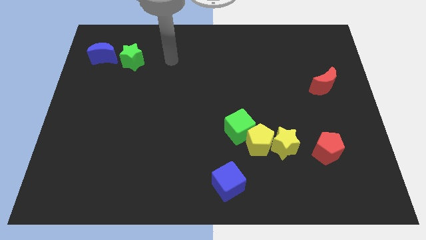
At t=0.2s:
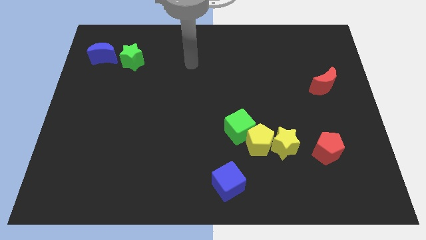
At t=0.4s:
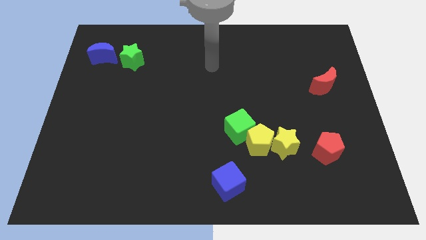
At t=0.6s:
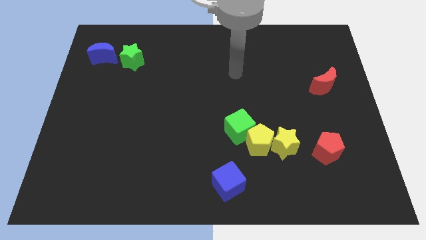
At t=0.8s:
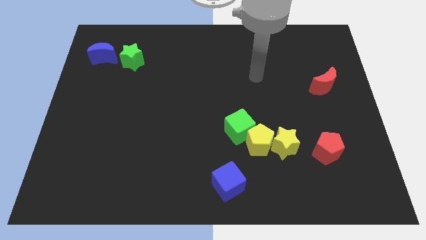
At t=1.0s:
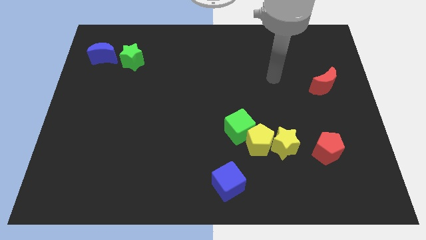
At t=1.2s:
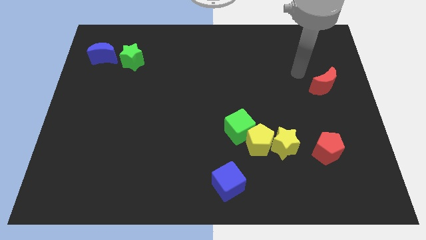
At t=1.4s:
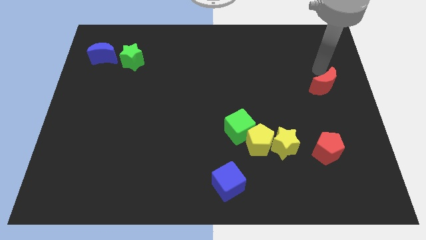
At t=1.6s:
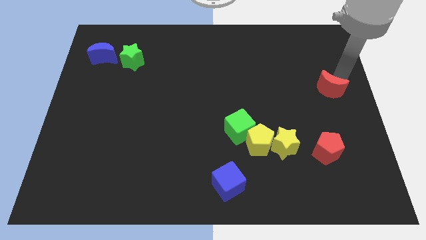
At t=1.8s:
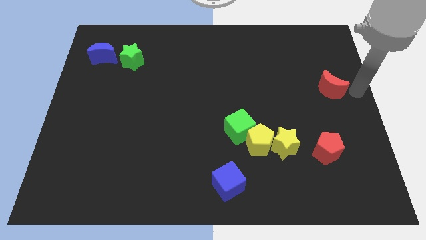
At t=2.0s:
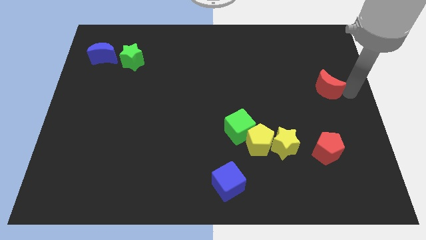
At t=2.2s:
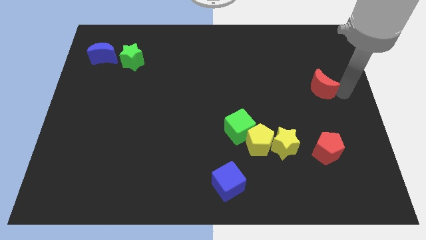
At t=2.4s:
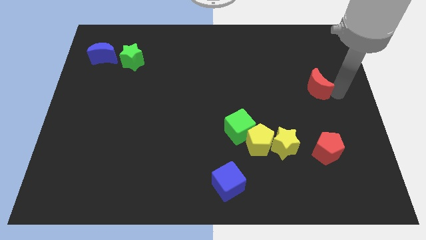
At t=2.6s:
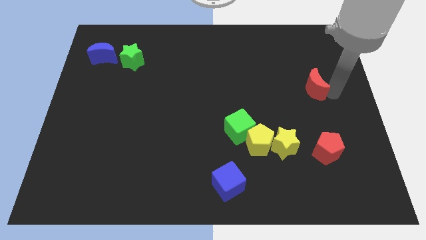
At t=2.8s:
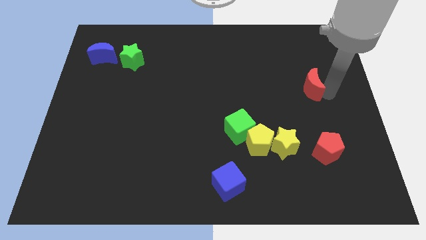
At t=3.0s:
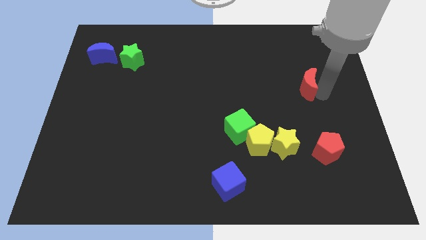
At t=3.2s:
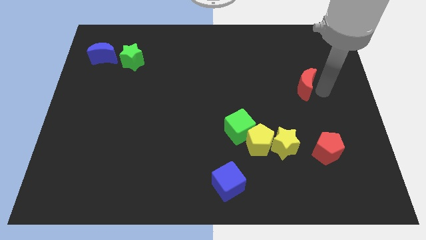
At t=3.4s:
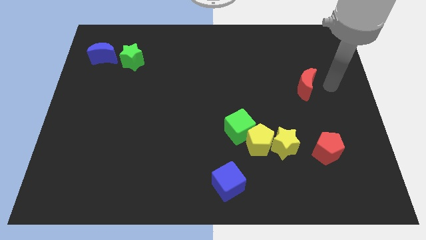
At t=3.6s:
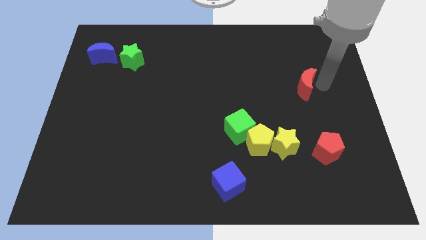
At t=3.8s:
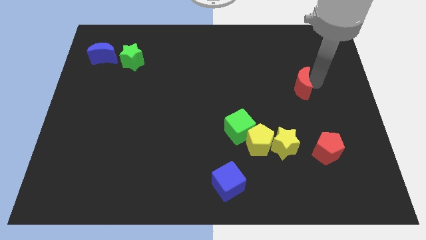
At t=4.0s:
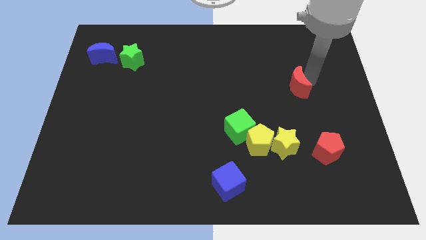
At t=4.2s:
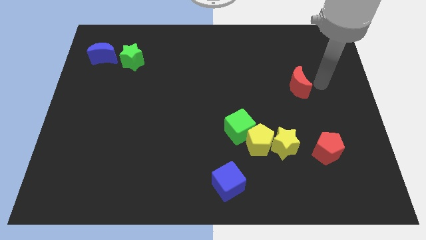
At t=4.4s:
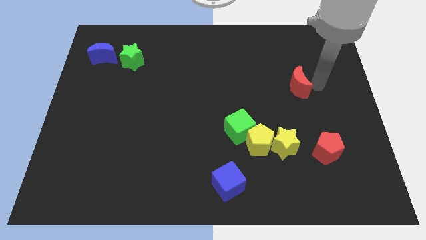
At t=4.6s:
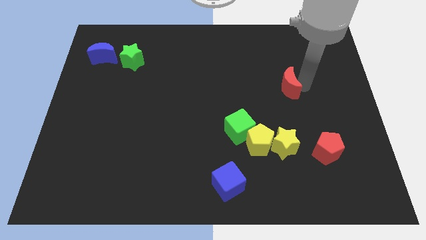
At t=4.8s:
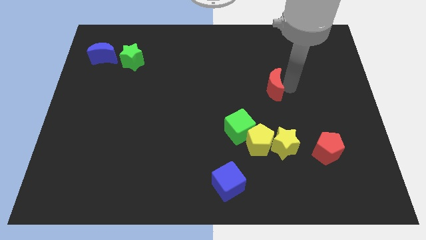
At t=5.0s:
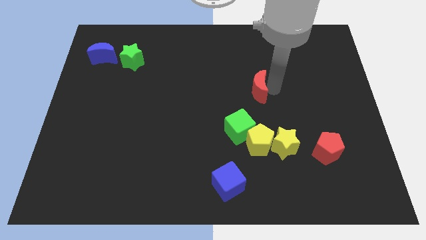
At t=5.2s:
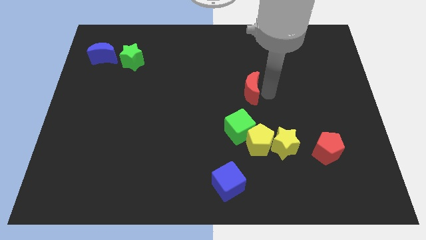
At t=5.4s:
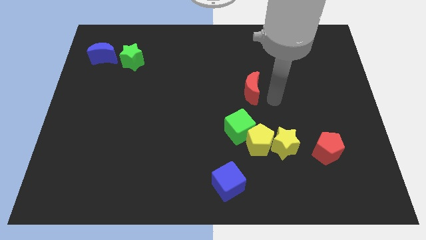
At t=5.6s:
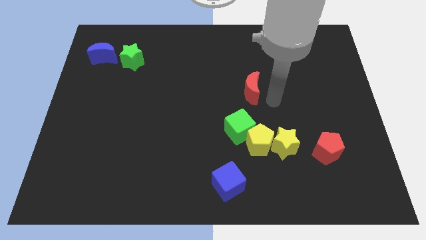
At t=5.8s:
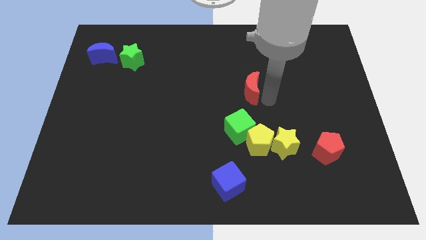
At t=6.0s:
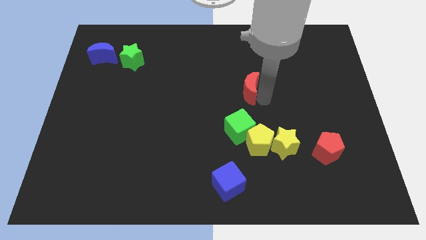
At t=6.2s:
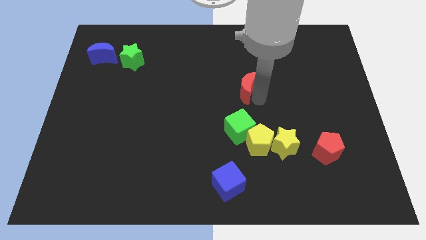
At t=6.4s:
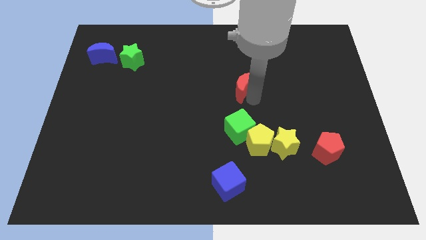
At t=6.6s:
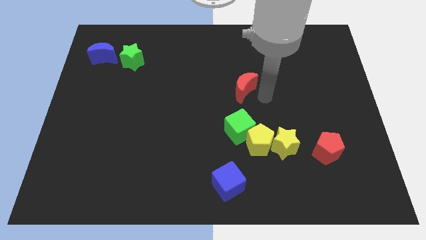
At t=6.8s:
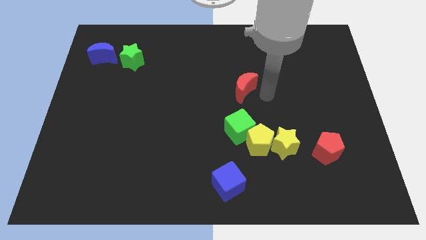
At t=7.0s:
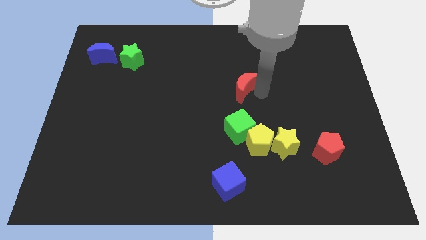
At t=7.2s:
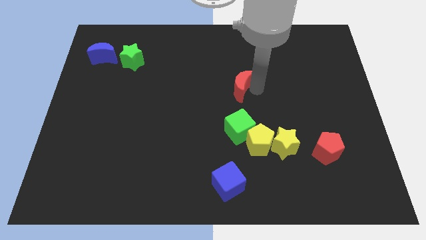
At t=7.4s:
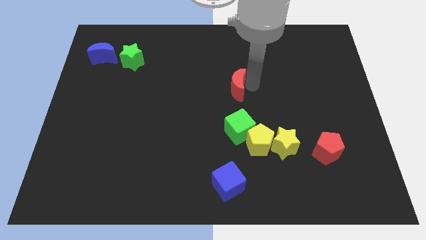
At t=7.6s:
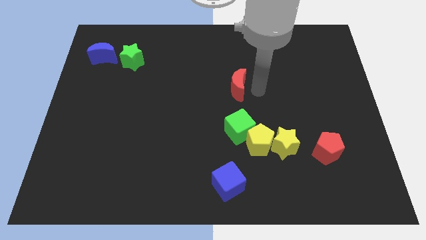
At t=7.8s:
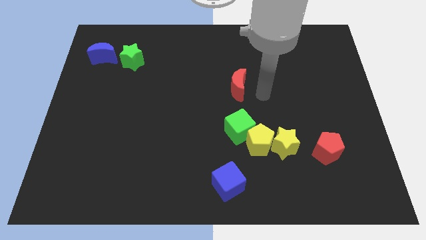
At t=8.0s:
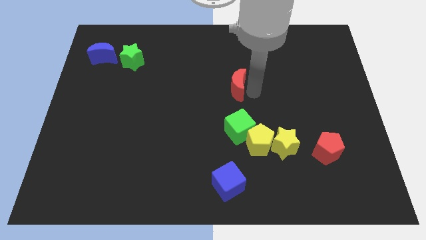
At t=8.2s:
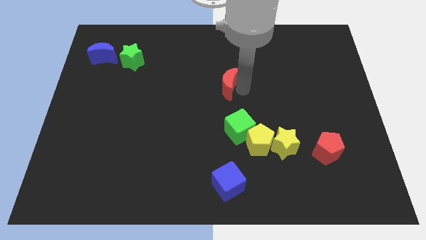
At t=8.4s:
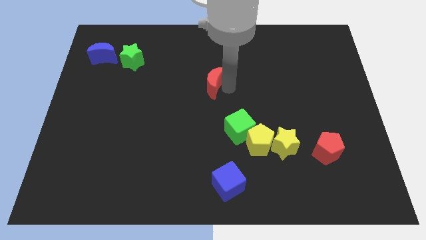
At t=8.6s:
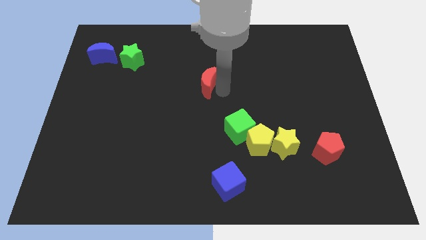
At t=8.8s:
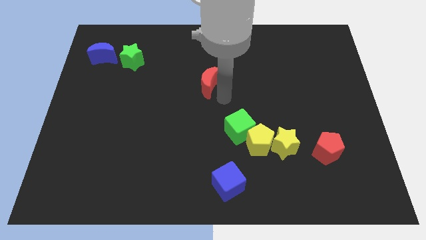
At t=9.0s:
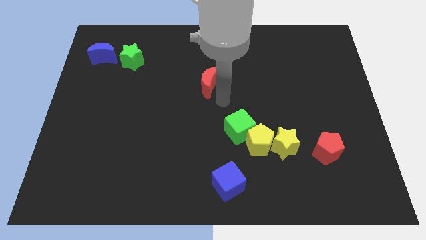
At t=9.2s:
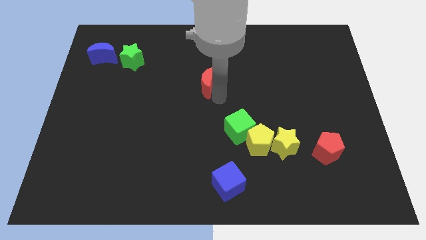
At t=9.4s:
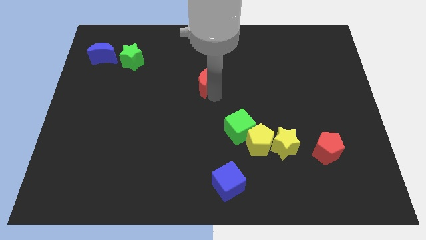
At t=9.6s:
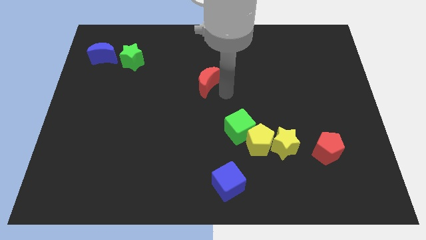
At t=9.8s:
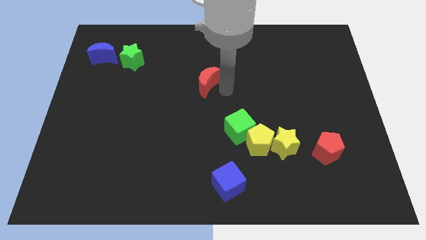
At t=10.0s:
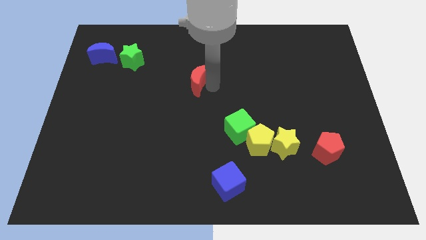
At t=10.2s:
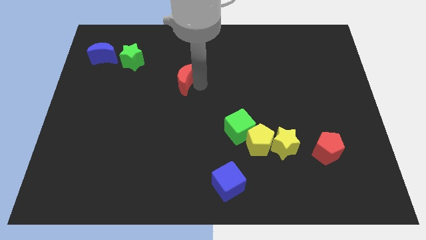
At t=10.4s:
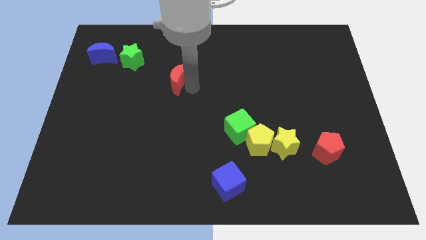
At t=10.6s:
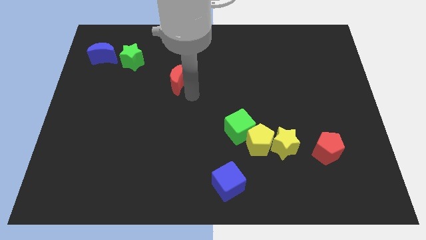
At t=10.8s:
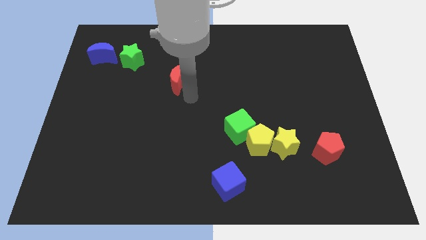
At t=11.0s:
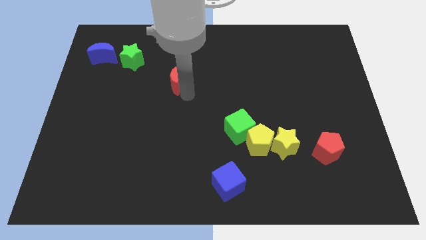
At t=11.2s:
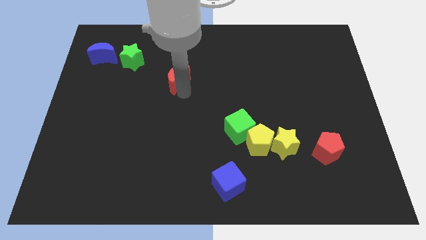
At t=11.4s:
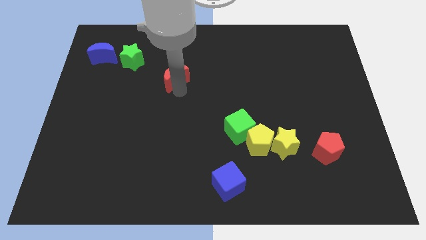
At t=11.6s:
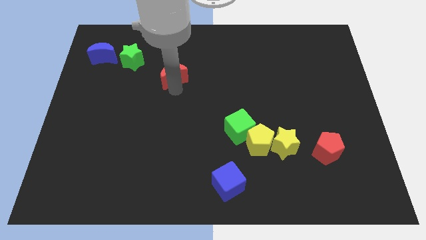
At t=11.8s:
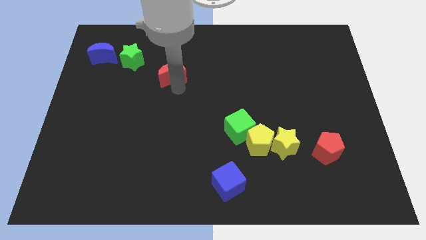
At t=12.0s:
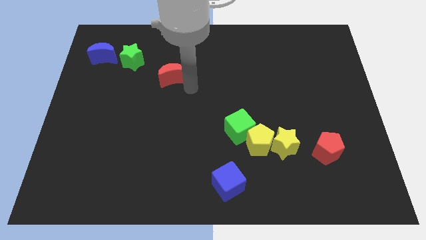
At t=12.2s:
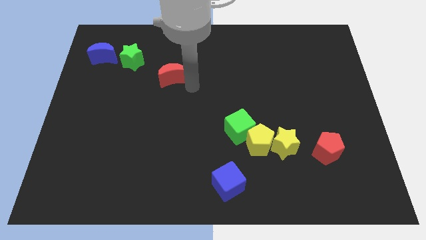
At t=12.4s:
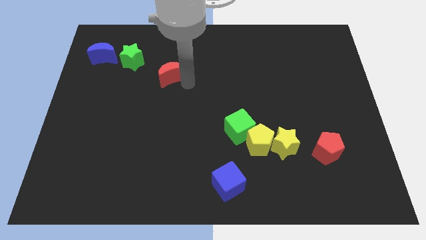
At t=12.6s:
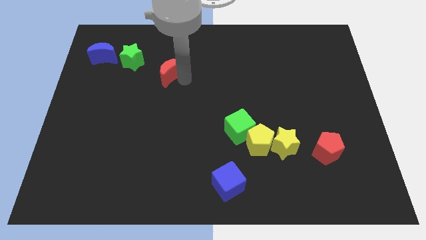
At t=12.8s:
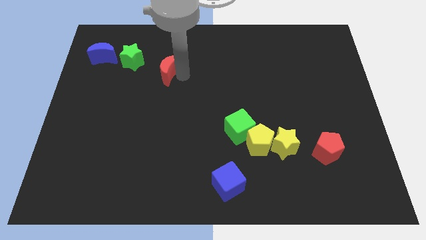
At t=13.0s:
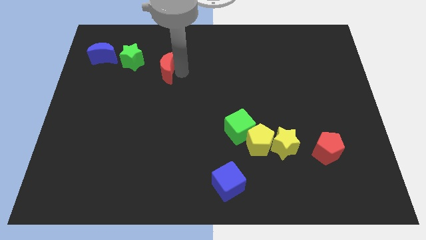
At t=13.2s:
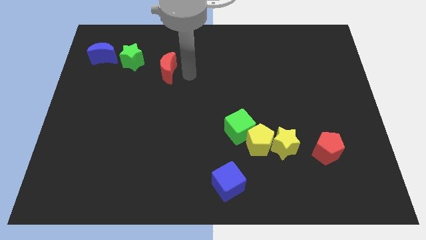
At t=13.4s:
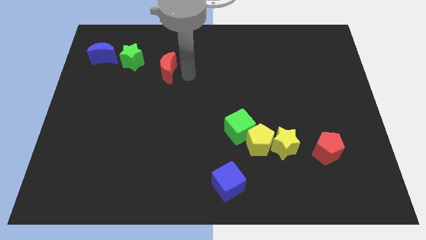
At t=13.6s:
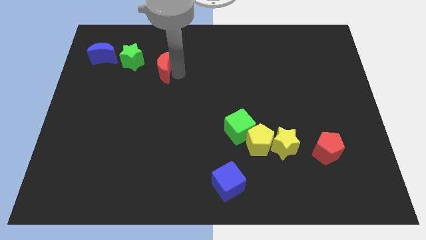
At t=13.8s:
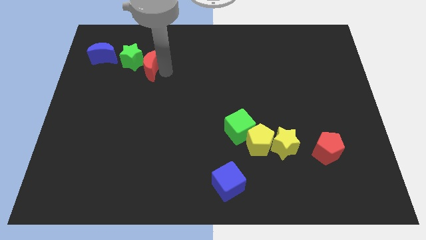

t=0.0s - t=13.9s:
push the red moon towards the green star
